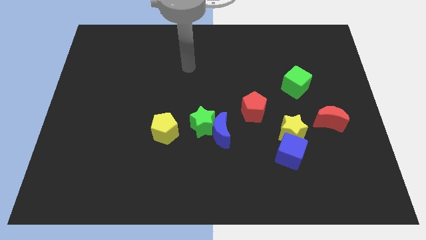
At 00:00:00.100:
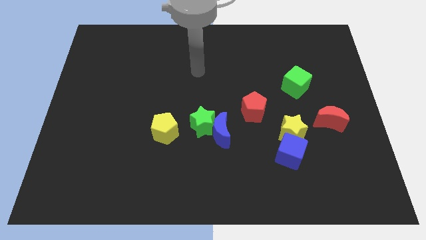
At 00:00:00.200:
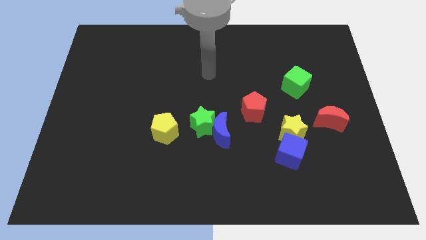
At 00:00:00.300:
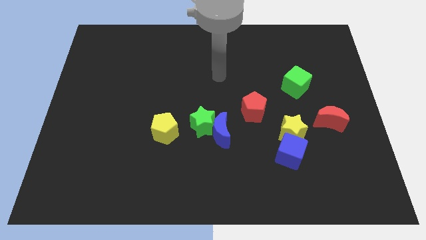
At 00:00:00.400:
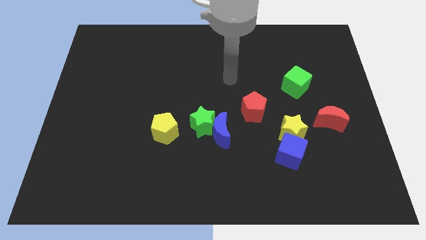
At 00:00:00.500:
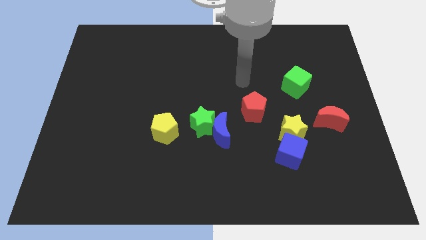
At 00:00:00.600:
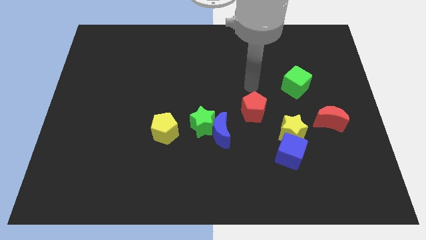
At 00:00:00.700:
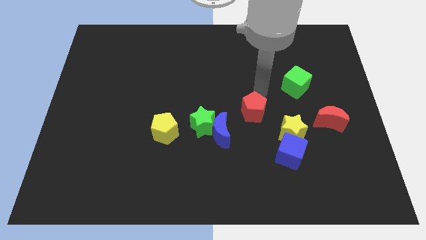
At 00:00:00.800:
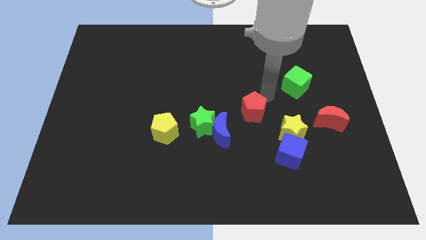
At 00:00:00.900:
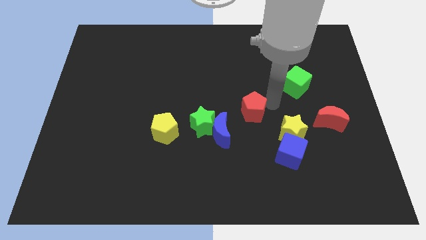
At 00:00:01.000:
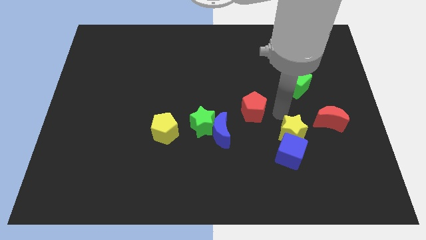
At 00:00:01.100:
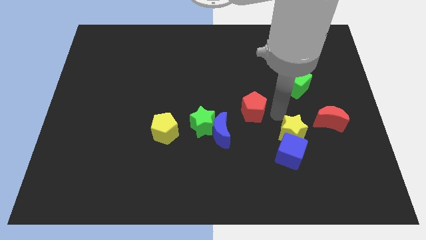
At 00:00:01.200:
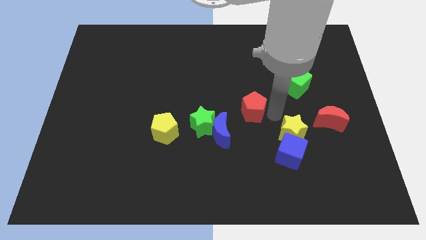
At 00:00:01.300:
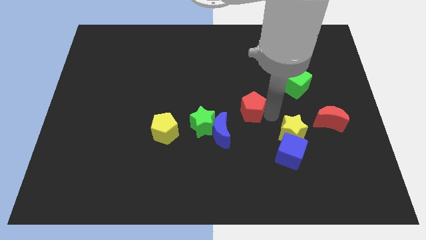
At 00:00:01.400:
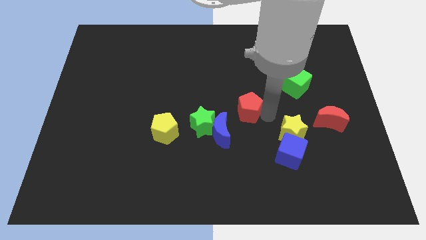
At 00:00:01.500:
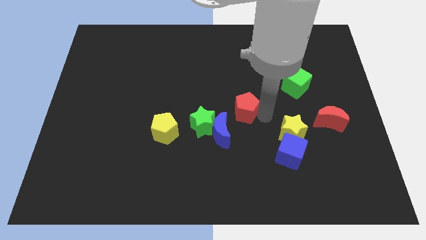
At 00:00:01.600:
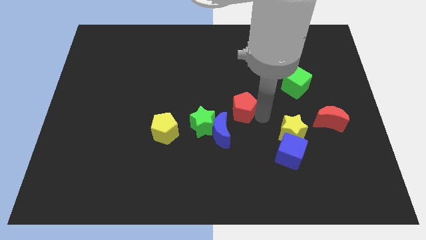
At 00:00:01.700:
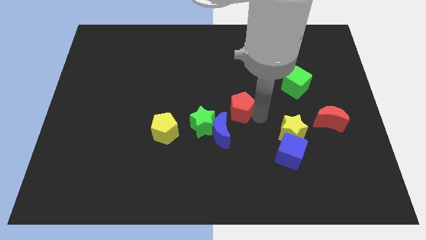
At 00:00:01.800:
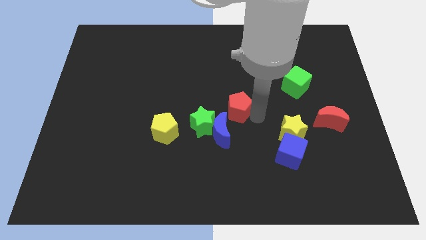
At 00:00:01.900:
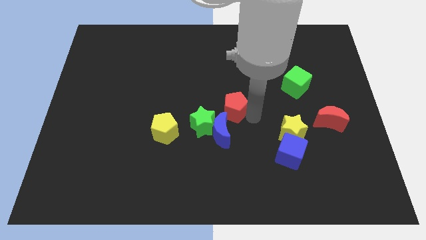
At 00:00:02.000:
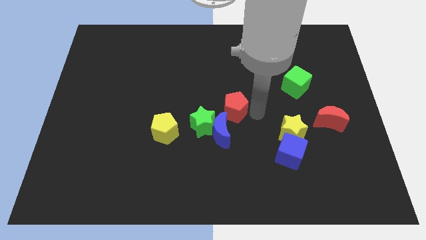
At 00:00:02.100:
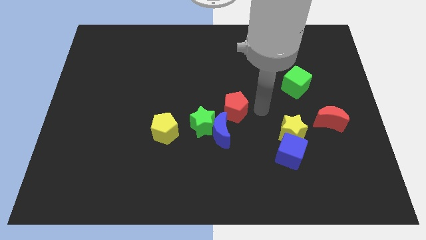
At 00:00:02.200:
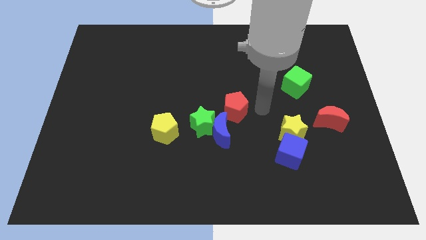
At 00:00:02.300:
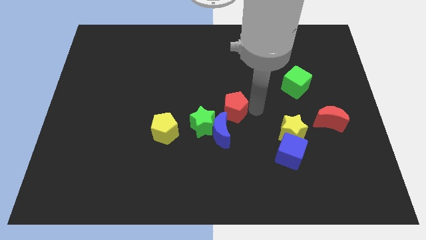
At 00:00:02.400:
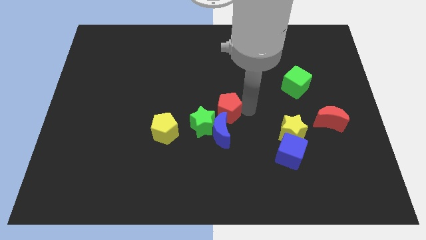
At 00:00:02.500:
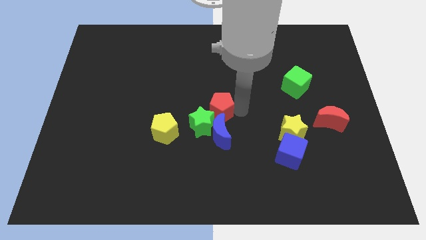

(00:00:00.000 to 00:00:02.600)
slightly push the red pentagon left

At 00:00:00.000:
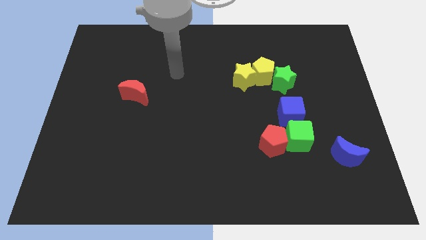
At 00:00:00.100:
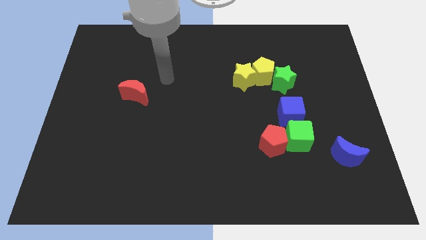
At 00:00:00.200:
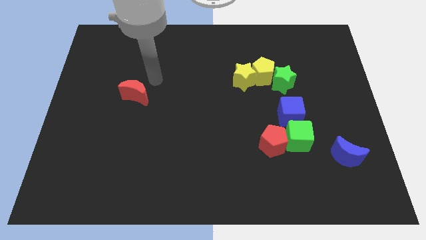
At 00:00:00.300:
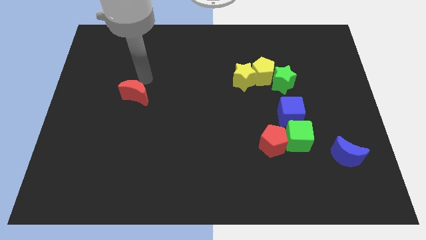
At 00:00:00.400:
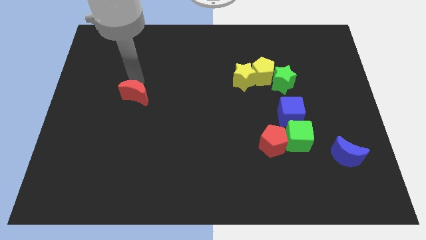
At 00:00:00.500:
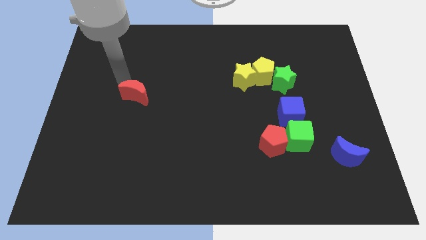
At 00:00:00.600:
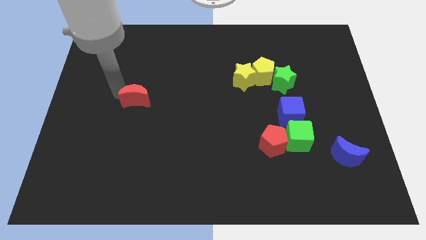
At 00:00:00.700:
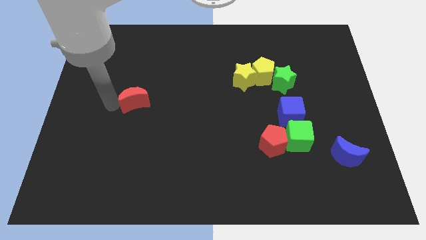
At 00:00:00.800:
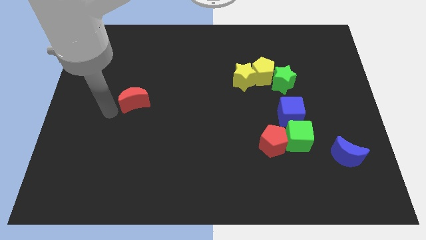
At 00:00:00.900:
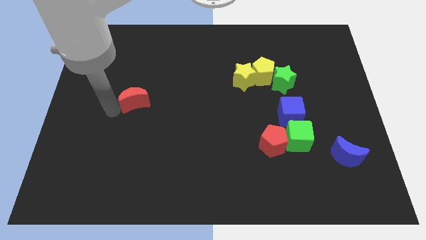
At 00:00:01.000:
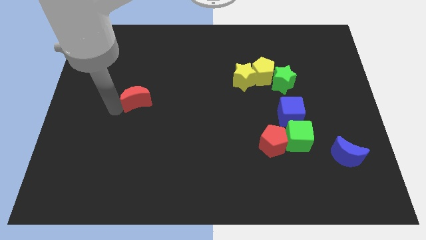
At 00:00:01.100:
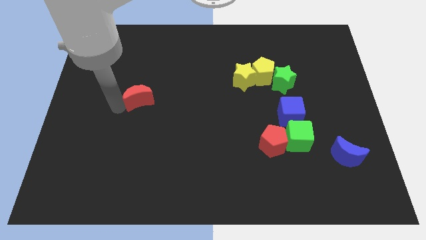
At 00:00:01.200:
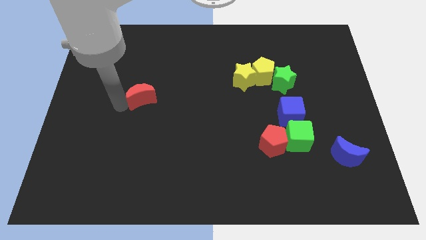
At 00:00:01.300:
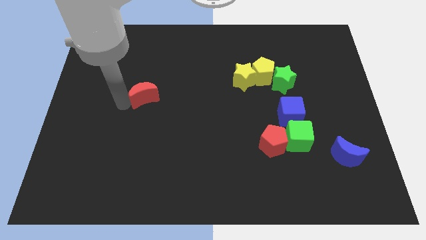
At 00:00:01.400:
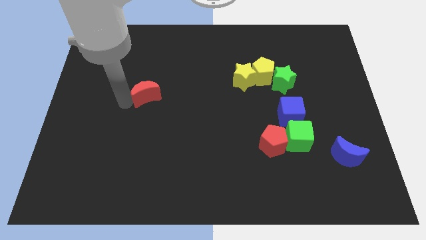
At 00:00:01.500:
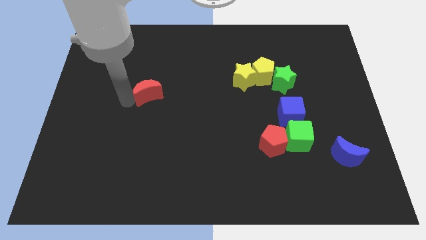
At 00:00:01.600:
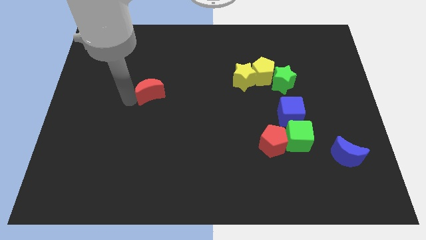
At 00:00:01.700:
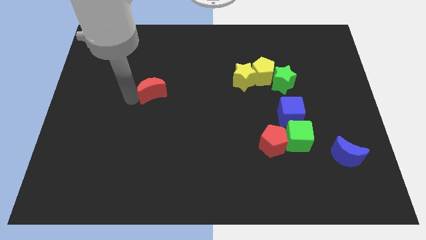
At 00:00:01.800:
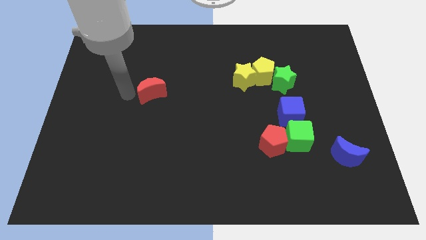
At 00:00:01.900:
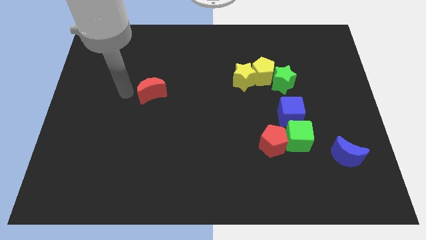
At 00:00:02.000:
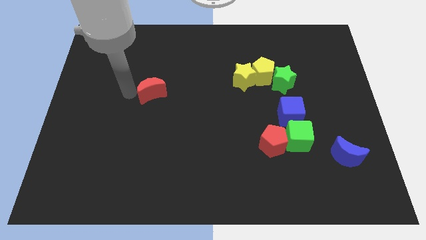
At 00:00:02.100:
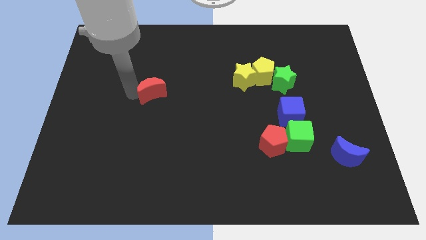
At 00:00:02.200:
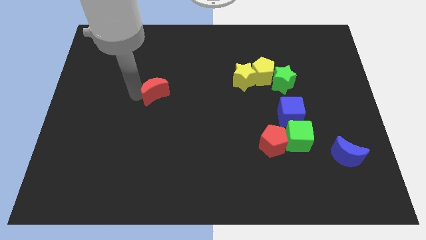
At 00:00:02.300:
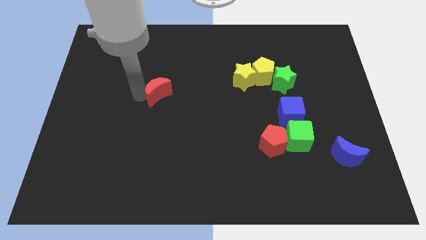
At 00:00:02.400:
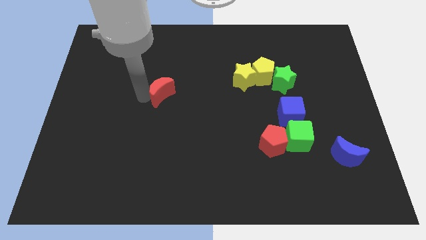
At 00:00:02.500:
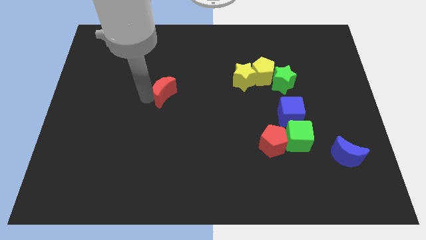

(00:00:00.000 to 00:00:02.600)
push the red moon right a little

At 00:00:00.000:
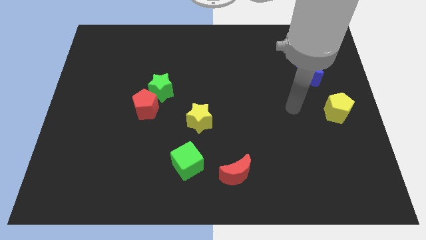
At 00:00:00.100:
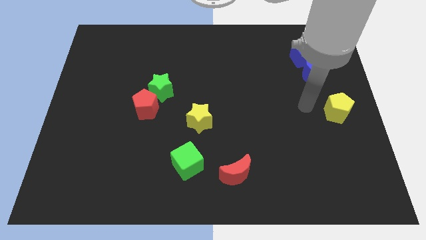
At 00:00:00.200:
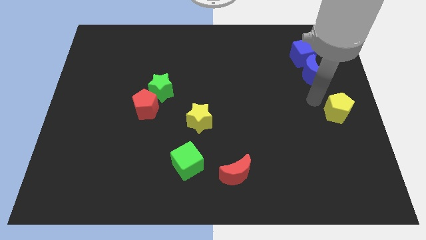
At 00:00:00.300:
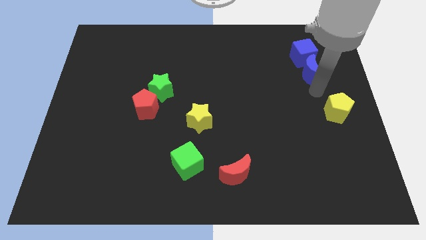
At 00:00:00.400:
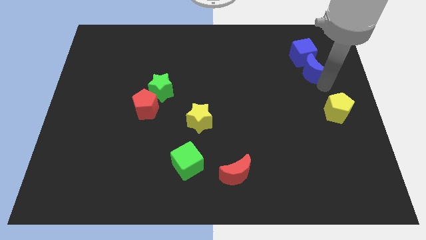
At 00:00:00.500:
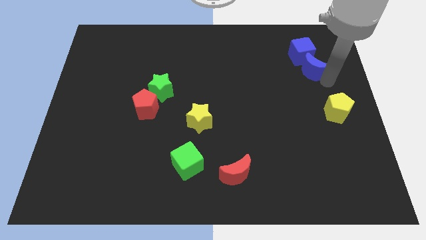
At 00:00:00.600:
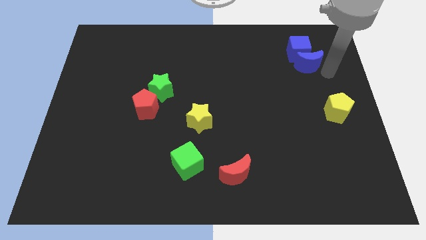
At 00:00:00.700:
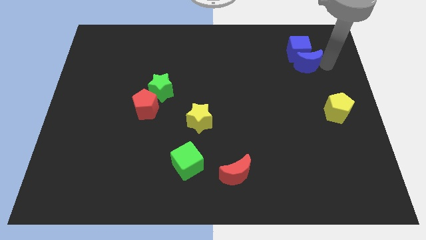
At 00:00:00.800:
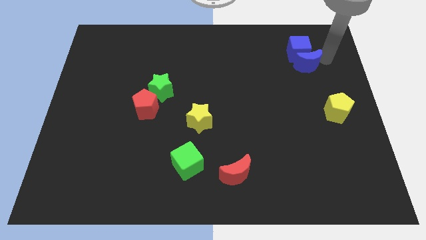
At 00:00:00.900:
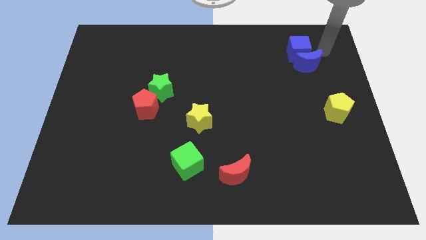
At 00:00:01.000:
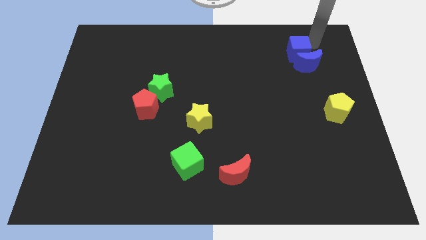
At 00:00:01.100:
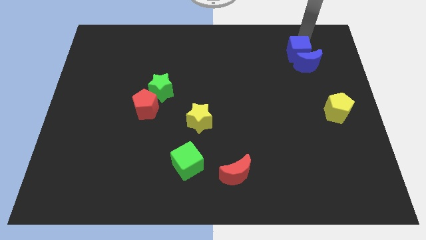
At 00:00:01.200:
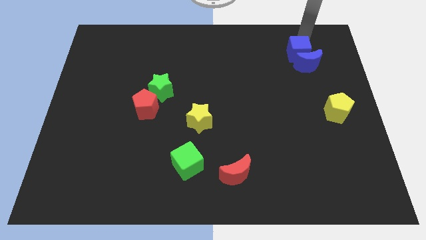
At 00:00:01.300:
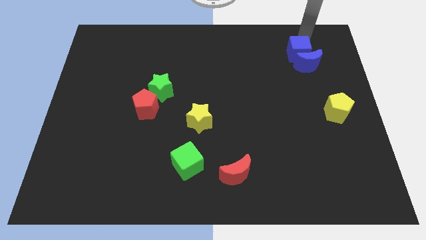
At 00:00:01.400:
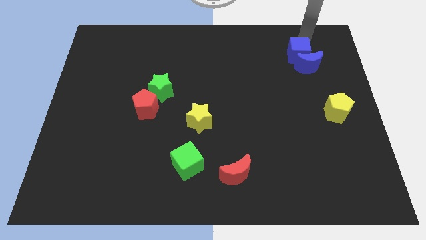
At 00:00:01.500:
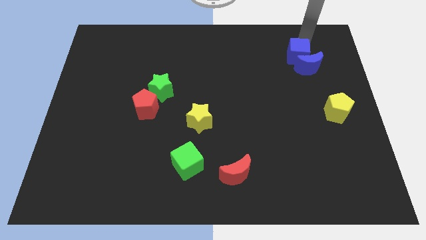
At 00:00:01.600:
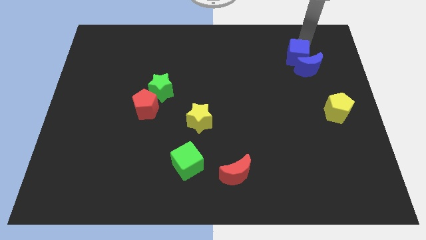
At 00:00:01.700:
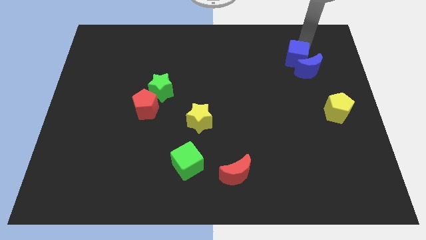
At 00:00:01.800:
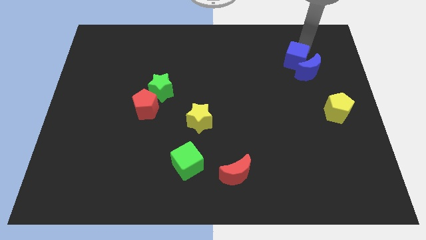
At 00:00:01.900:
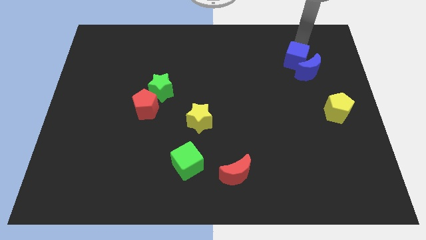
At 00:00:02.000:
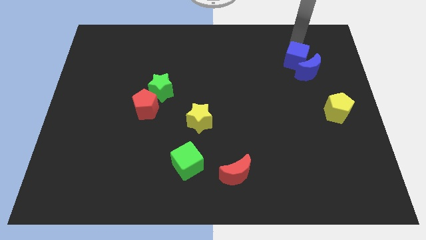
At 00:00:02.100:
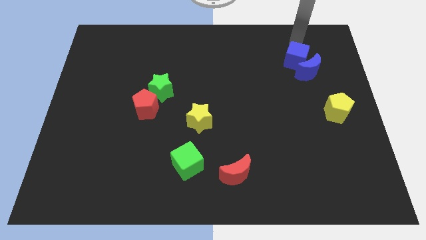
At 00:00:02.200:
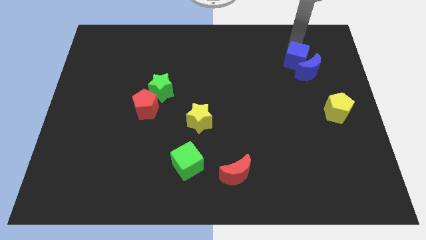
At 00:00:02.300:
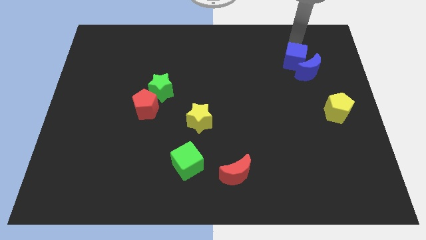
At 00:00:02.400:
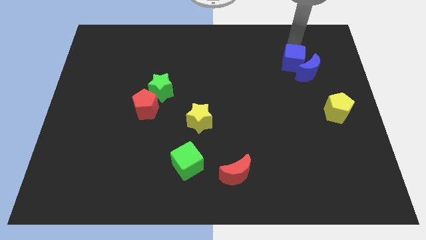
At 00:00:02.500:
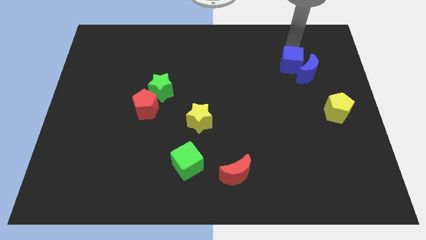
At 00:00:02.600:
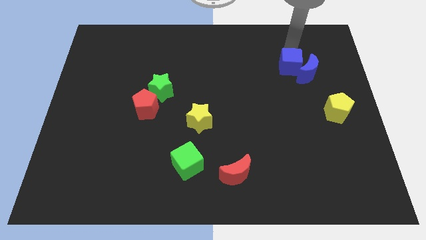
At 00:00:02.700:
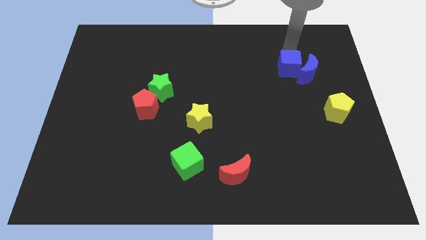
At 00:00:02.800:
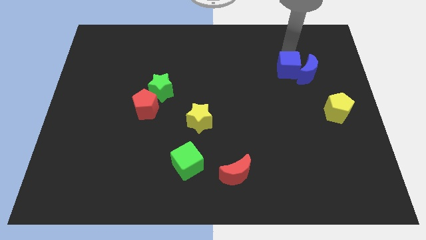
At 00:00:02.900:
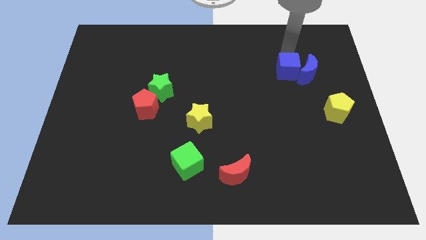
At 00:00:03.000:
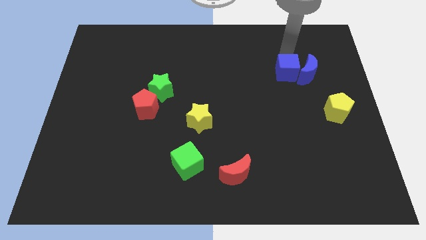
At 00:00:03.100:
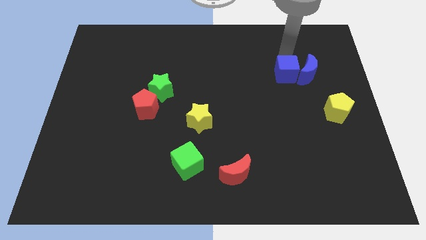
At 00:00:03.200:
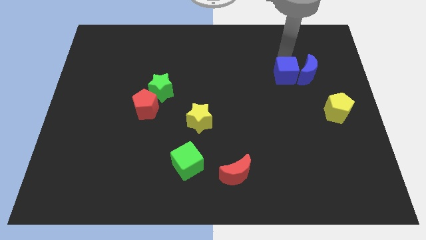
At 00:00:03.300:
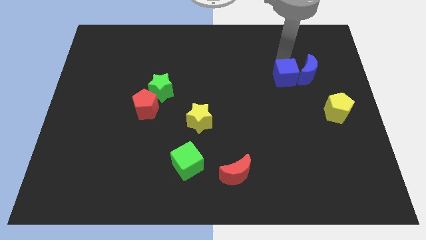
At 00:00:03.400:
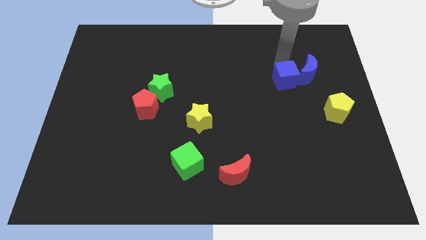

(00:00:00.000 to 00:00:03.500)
slightly move the blue cube down
